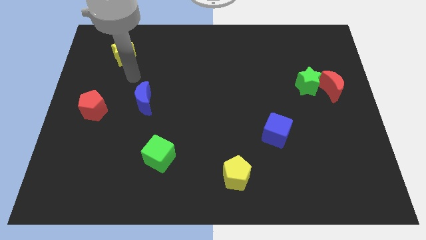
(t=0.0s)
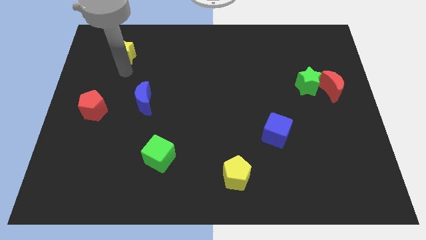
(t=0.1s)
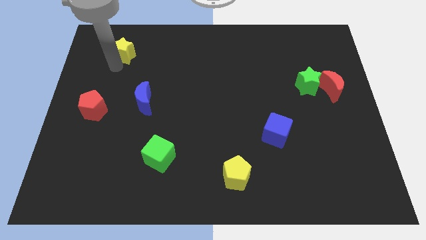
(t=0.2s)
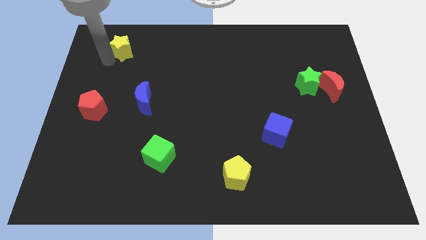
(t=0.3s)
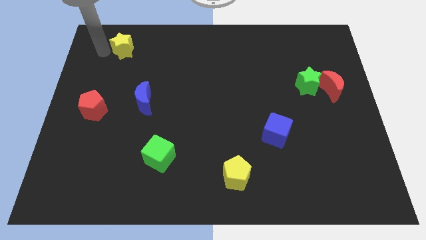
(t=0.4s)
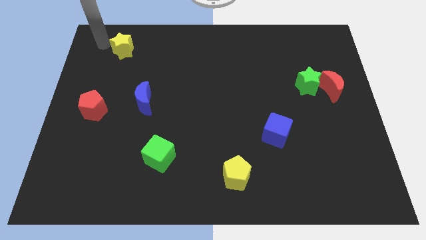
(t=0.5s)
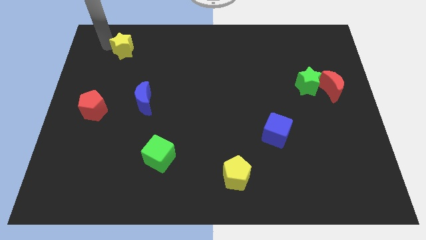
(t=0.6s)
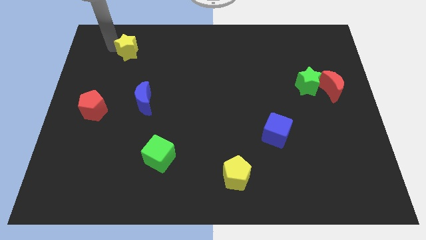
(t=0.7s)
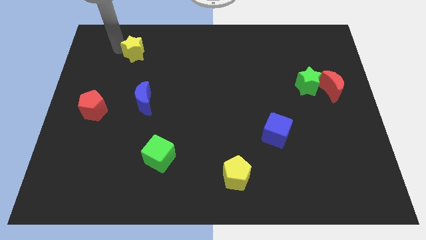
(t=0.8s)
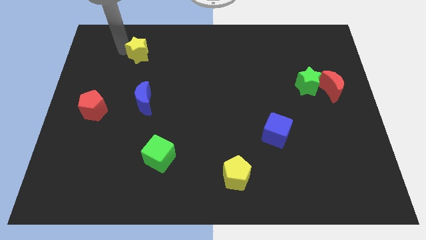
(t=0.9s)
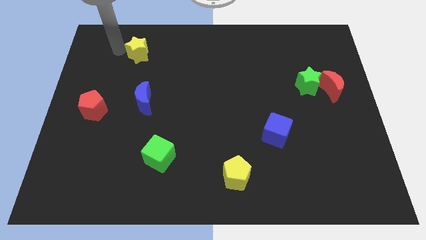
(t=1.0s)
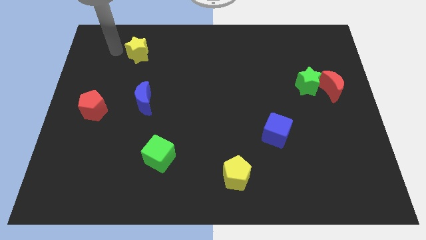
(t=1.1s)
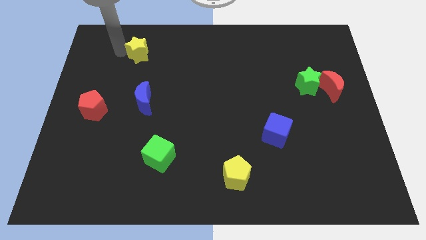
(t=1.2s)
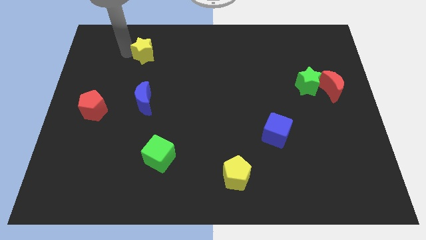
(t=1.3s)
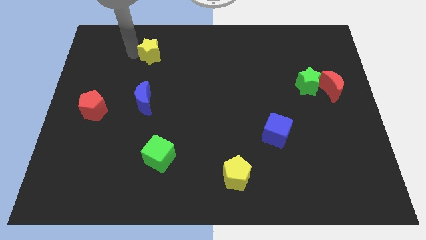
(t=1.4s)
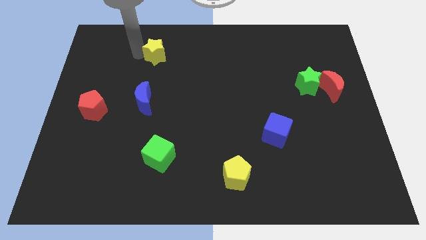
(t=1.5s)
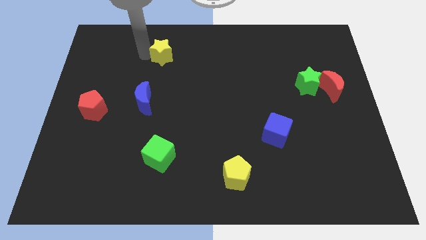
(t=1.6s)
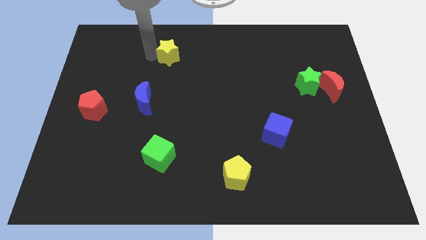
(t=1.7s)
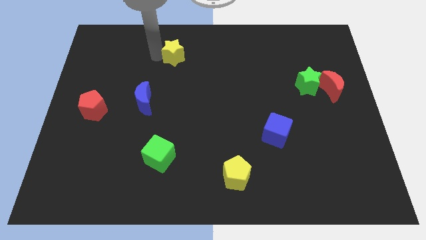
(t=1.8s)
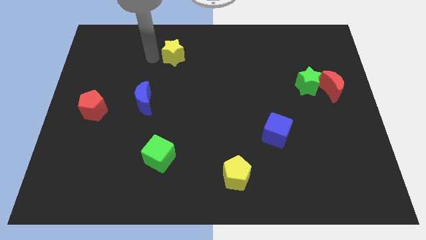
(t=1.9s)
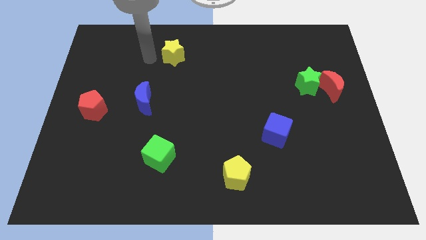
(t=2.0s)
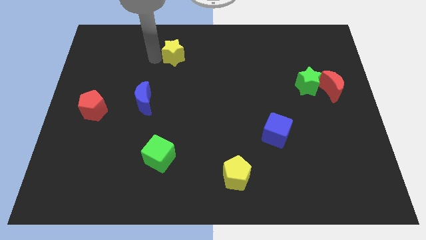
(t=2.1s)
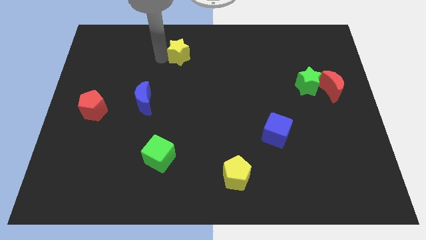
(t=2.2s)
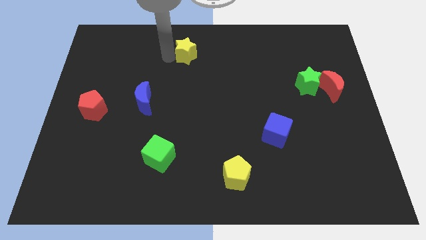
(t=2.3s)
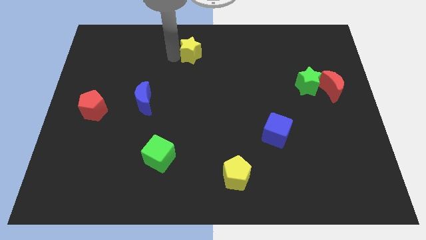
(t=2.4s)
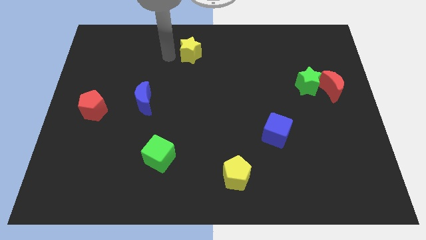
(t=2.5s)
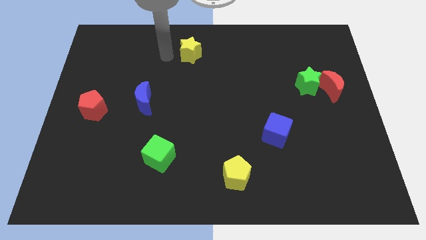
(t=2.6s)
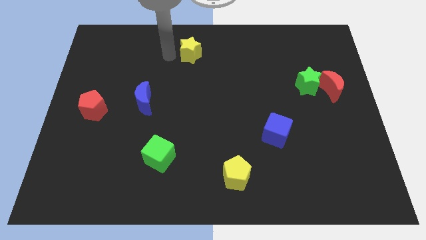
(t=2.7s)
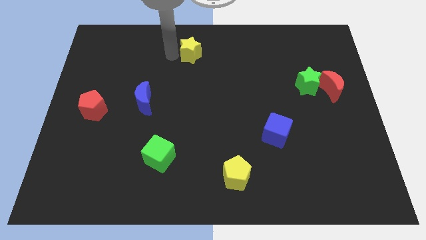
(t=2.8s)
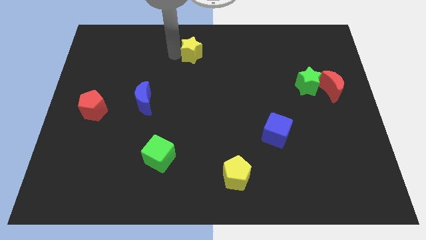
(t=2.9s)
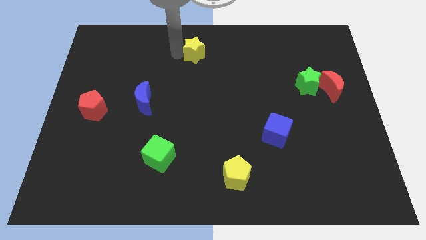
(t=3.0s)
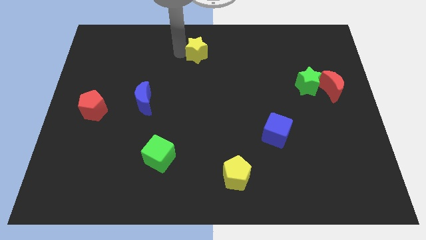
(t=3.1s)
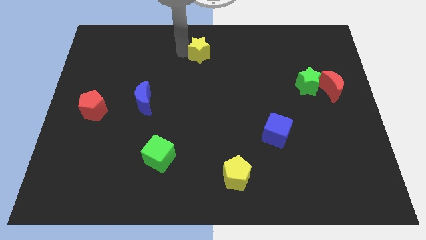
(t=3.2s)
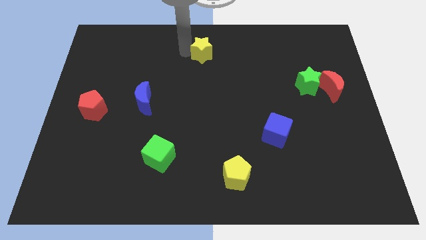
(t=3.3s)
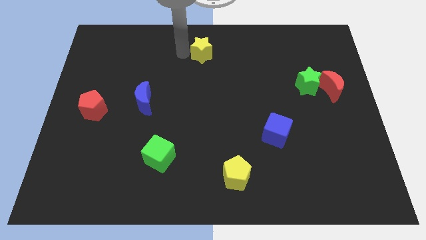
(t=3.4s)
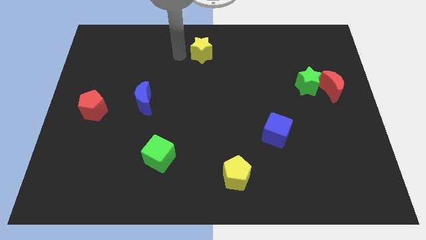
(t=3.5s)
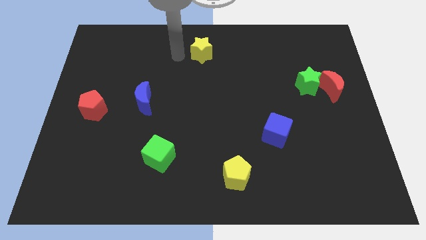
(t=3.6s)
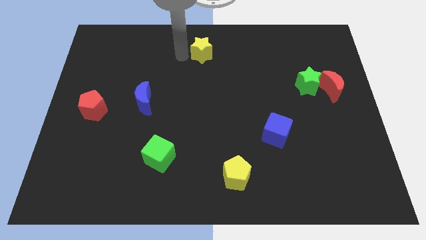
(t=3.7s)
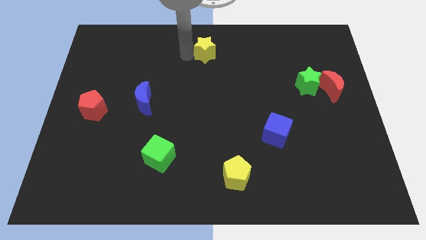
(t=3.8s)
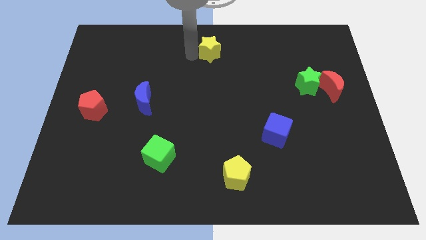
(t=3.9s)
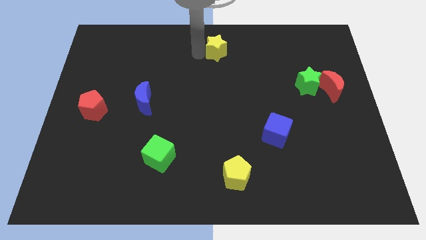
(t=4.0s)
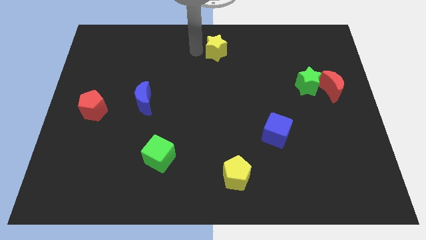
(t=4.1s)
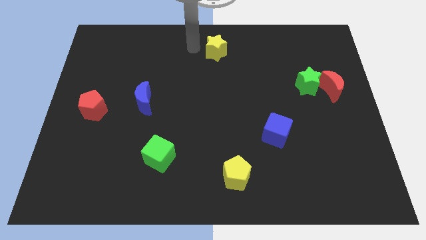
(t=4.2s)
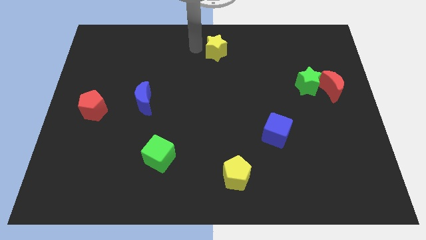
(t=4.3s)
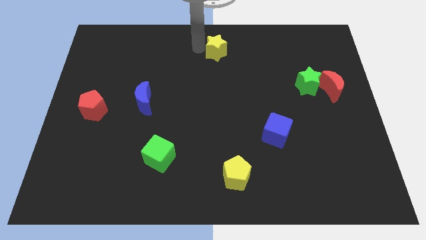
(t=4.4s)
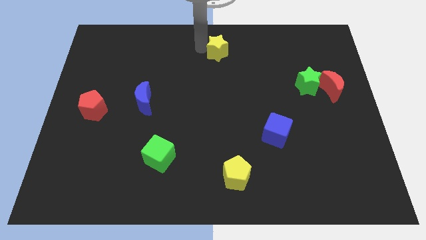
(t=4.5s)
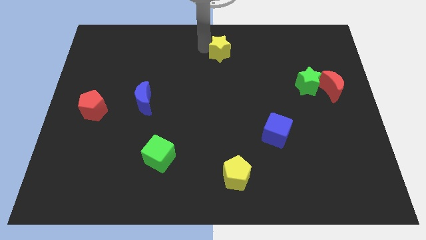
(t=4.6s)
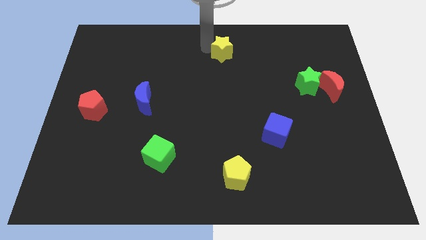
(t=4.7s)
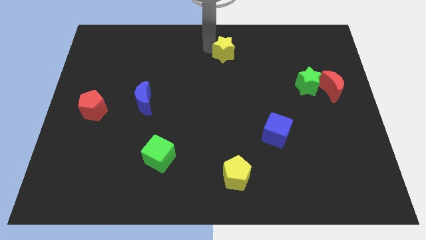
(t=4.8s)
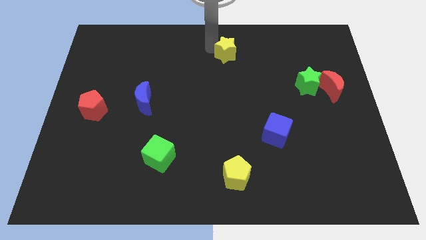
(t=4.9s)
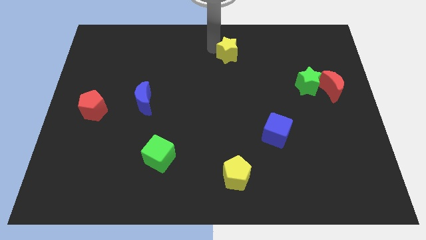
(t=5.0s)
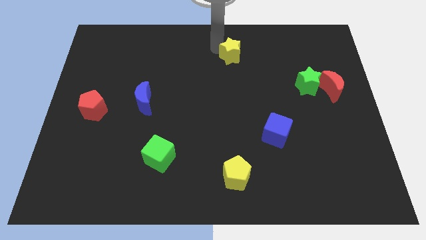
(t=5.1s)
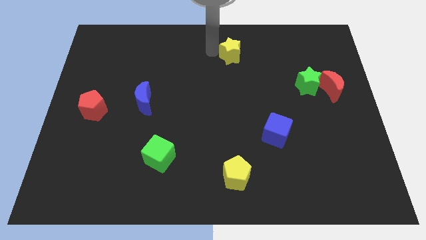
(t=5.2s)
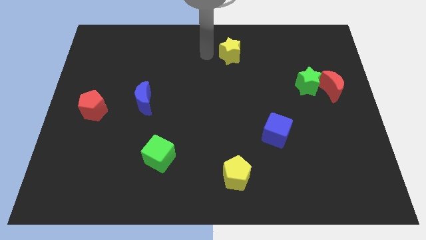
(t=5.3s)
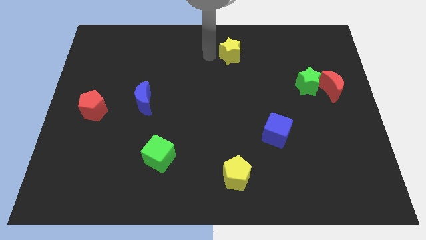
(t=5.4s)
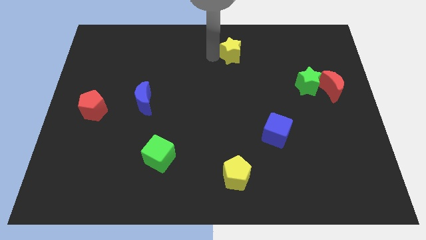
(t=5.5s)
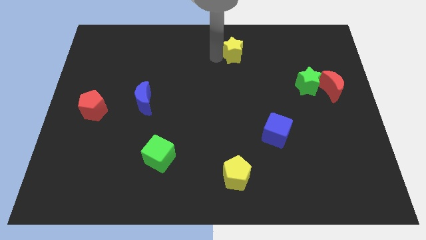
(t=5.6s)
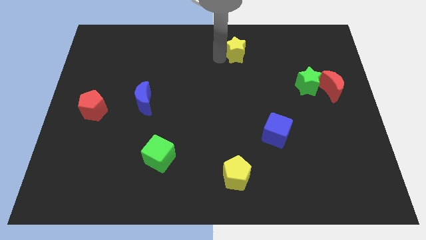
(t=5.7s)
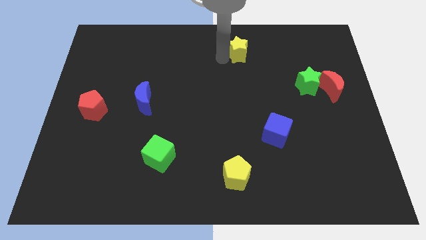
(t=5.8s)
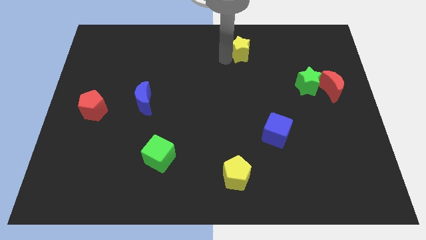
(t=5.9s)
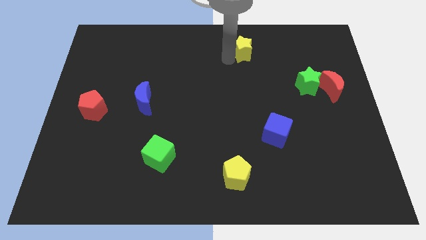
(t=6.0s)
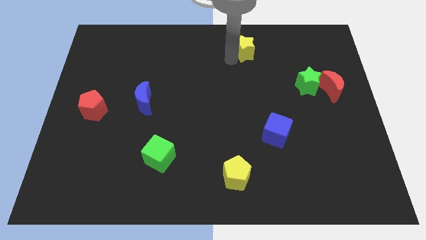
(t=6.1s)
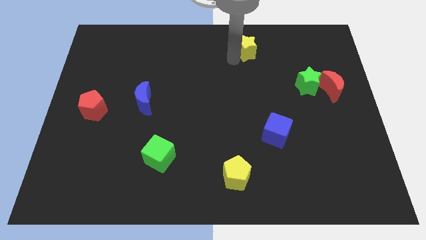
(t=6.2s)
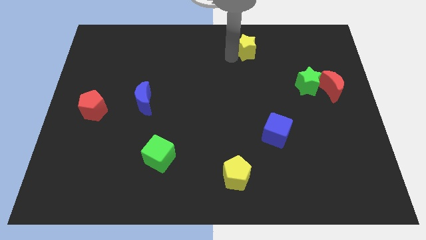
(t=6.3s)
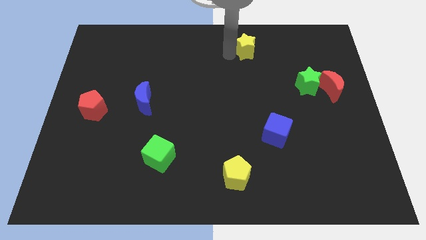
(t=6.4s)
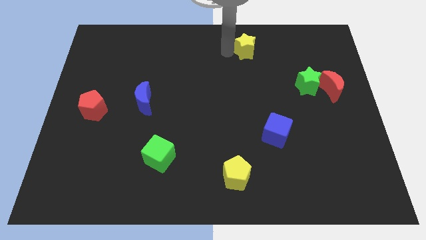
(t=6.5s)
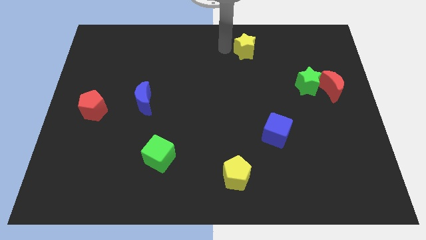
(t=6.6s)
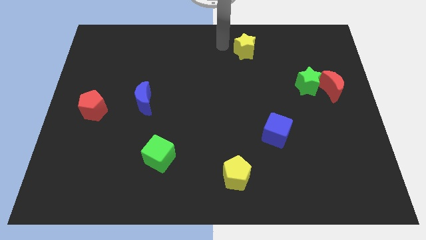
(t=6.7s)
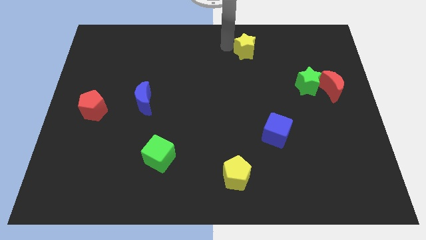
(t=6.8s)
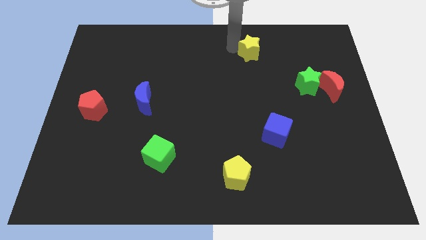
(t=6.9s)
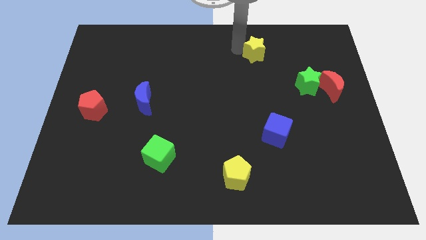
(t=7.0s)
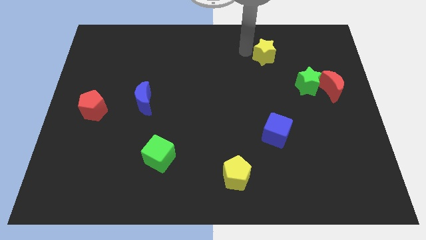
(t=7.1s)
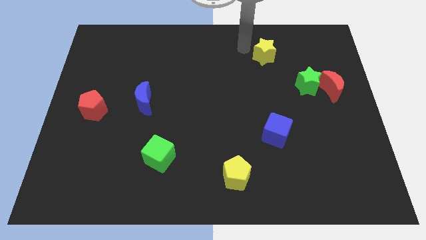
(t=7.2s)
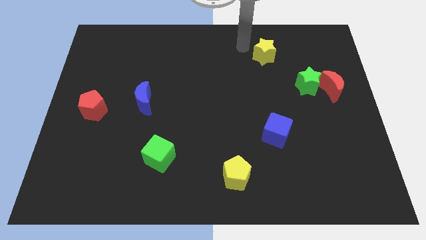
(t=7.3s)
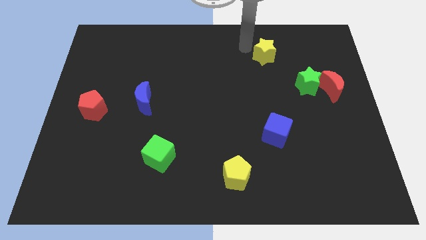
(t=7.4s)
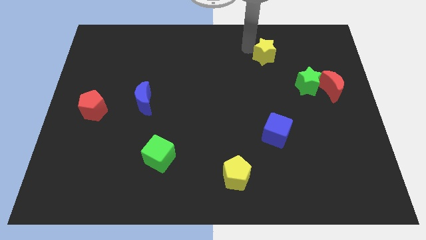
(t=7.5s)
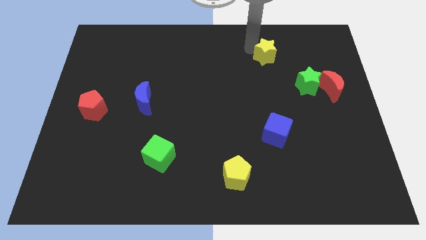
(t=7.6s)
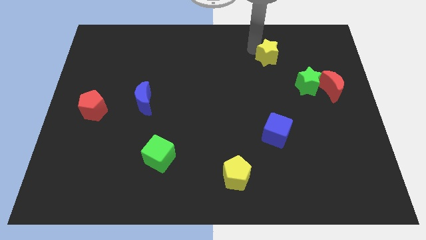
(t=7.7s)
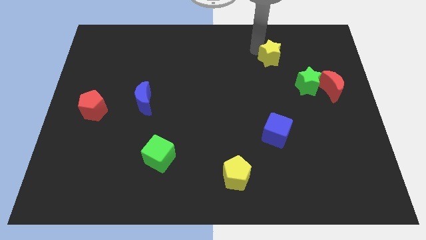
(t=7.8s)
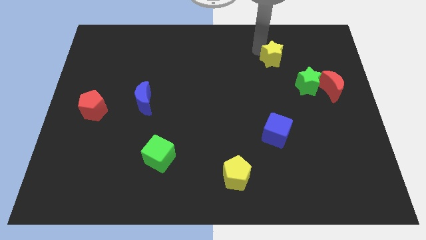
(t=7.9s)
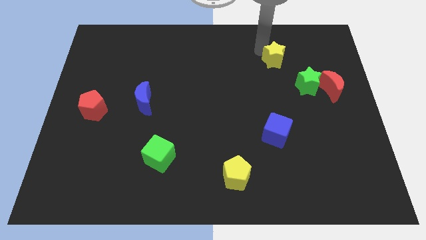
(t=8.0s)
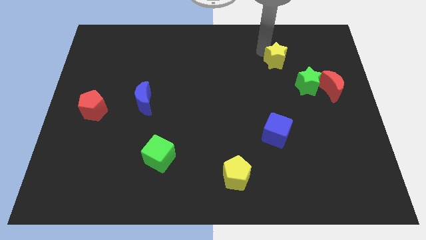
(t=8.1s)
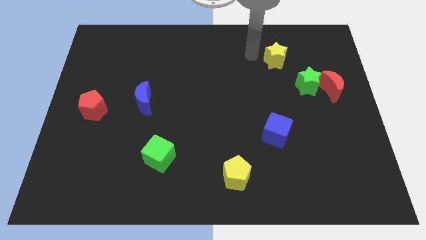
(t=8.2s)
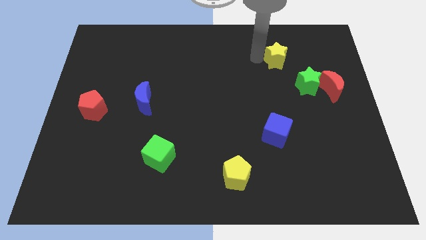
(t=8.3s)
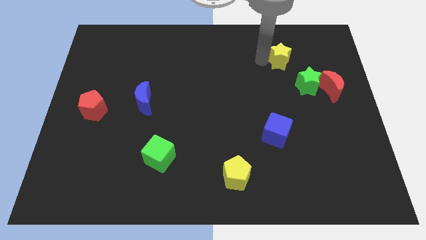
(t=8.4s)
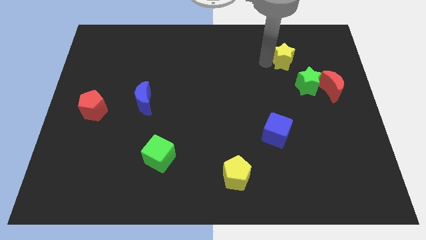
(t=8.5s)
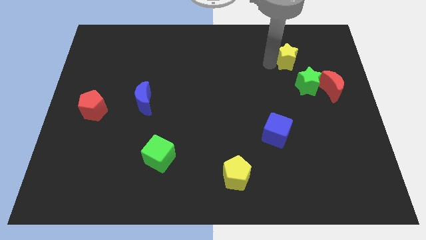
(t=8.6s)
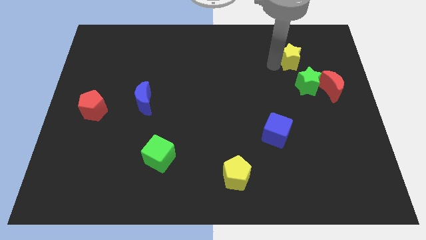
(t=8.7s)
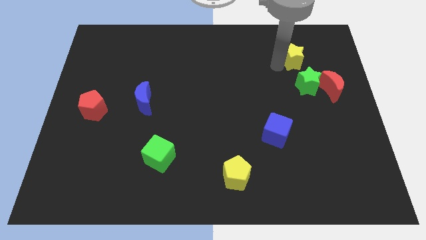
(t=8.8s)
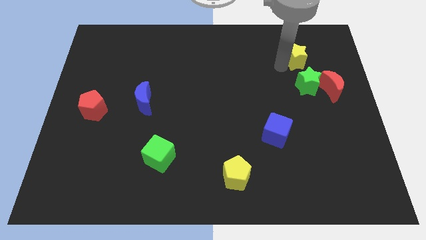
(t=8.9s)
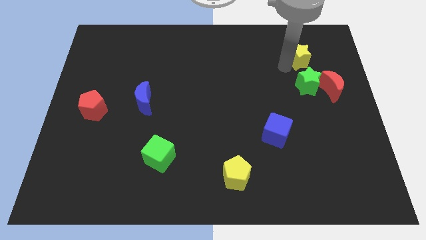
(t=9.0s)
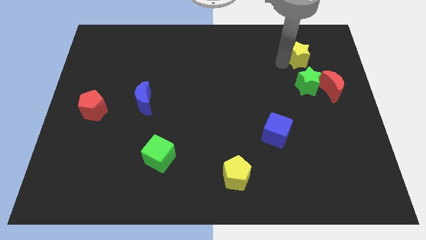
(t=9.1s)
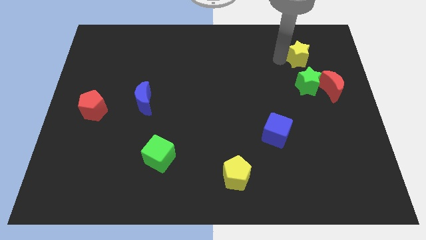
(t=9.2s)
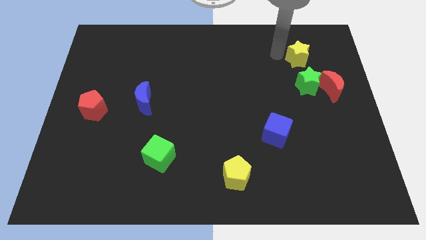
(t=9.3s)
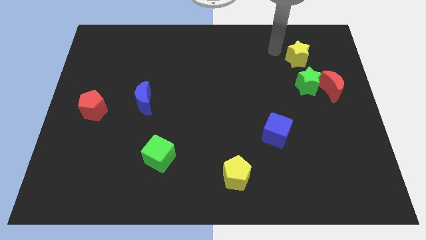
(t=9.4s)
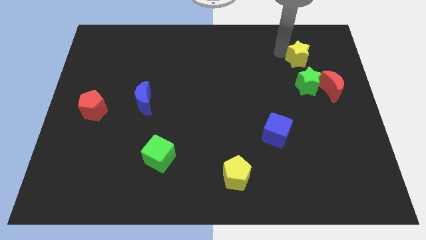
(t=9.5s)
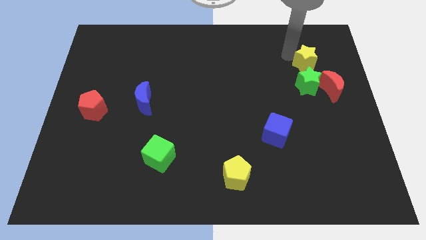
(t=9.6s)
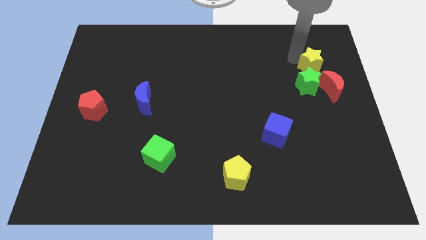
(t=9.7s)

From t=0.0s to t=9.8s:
put the yellow star to the top right of the green star
